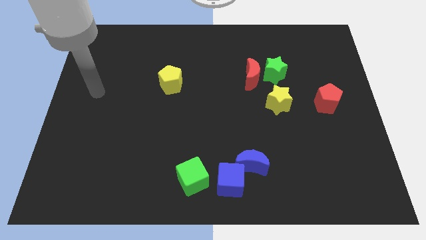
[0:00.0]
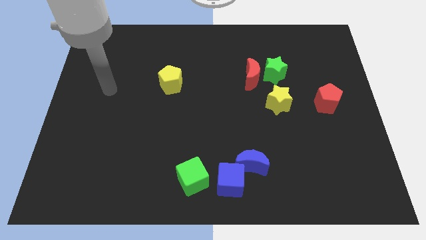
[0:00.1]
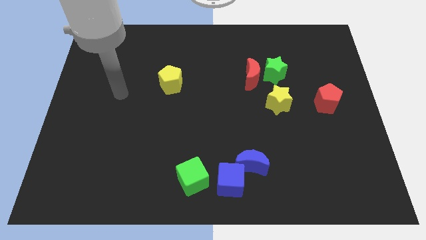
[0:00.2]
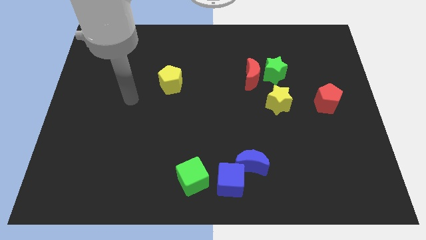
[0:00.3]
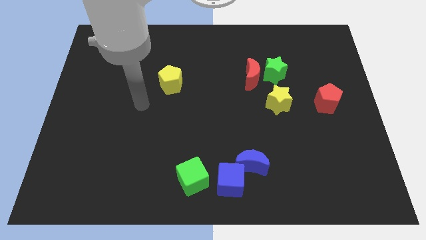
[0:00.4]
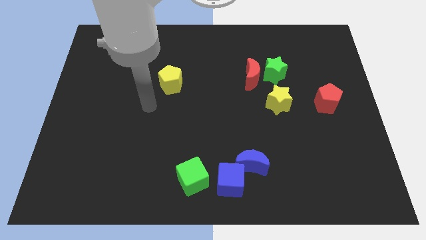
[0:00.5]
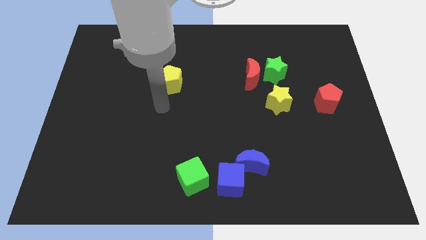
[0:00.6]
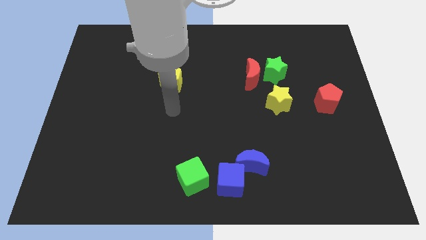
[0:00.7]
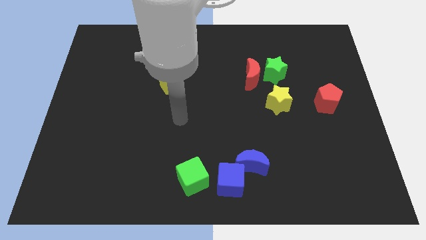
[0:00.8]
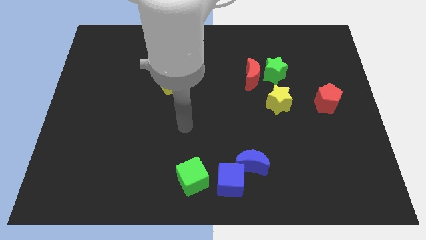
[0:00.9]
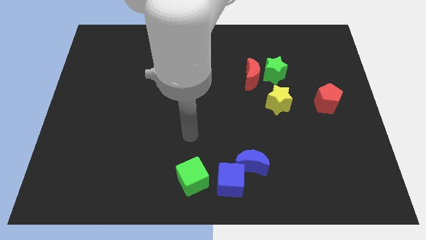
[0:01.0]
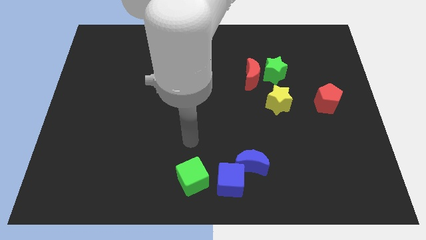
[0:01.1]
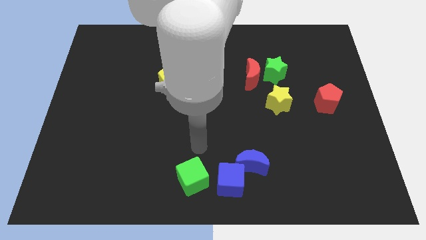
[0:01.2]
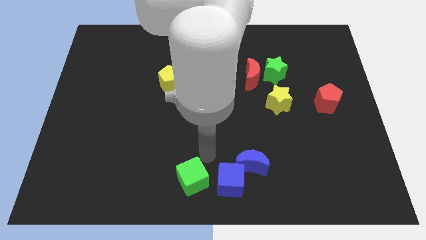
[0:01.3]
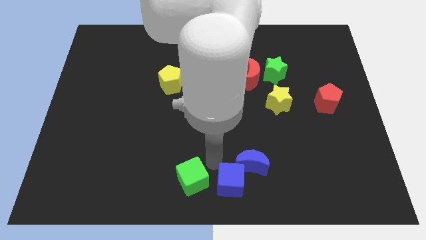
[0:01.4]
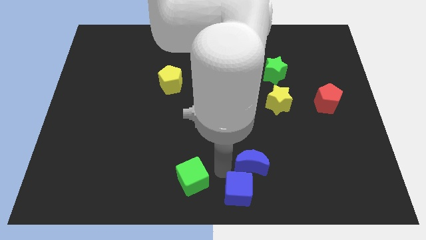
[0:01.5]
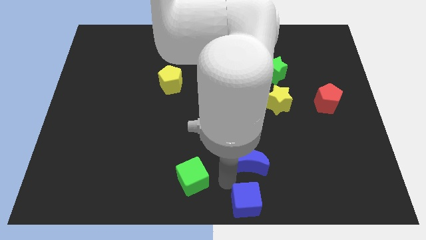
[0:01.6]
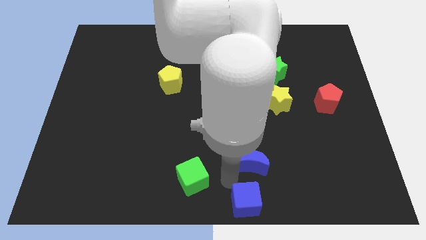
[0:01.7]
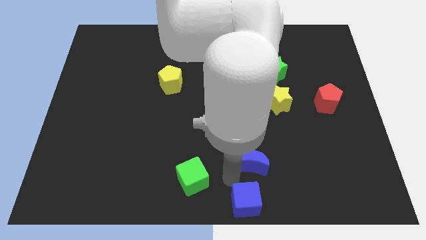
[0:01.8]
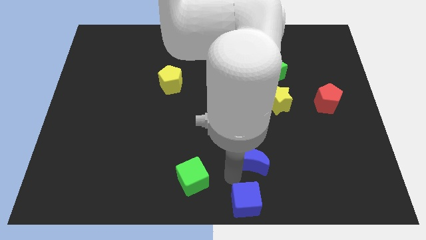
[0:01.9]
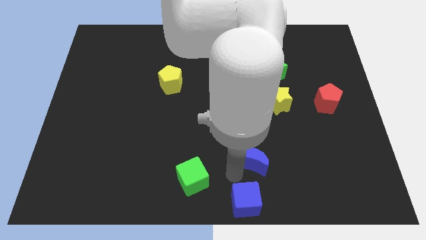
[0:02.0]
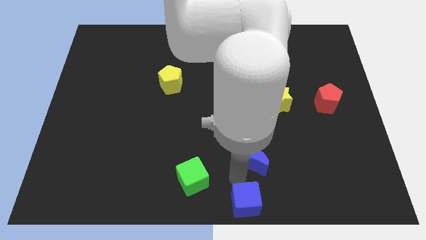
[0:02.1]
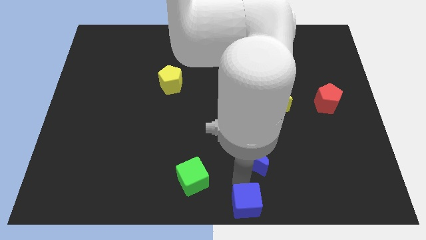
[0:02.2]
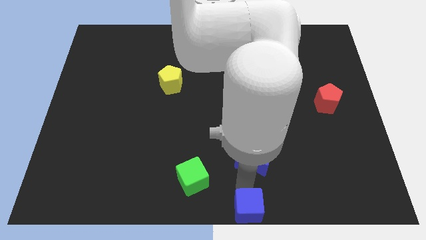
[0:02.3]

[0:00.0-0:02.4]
move the blue moon away from the blue cube

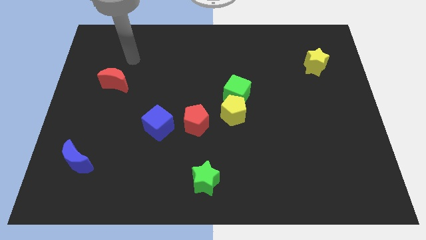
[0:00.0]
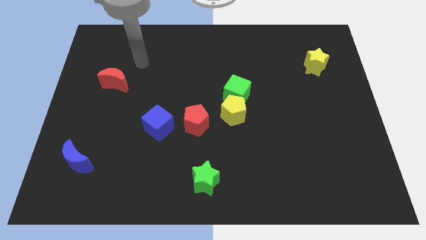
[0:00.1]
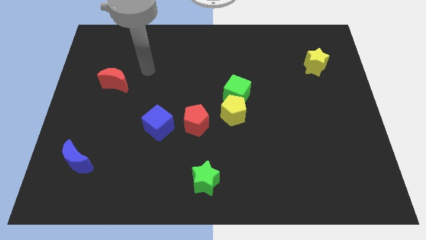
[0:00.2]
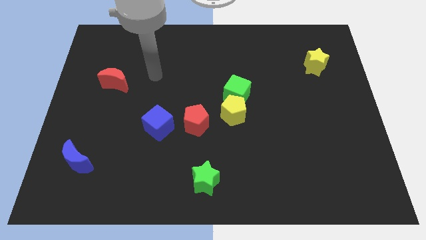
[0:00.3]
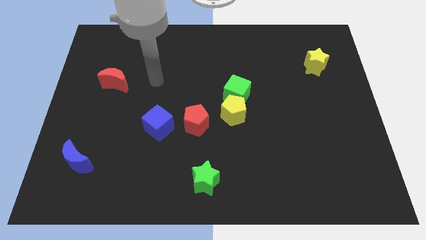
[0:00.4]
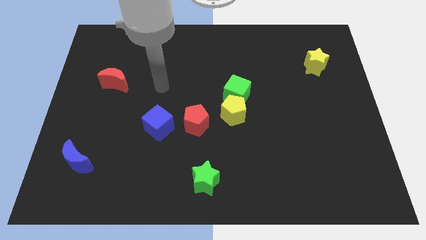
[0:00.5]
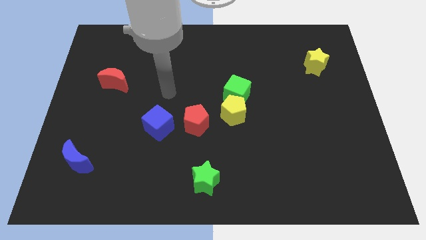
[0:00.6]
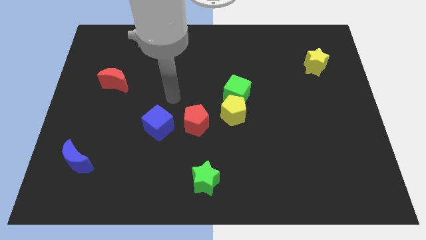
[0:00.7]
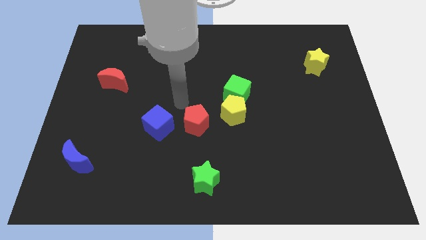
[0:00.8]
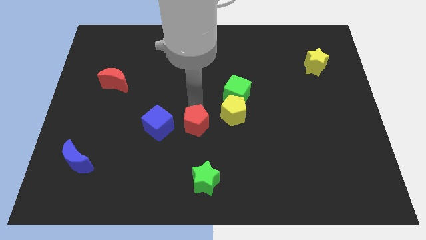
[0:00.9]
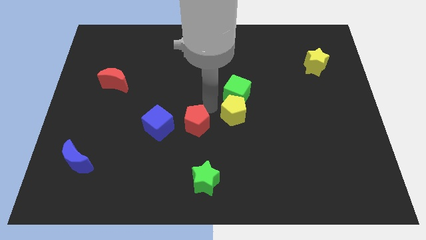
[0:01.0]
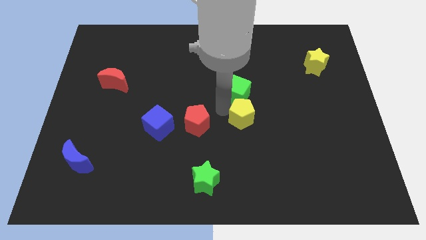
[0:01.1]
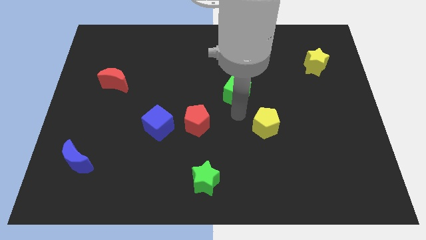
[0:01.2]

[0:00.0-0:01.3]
move the green cube away from the yellow pentagon

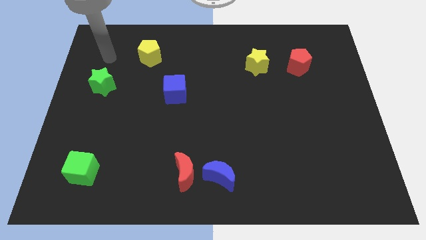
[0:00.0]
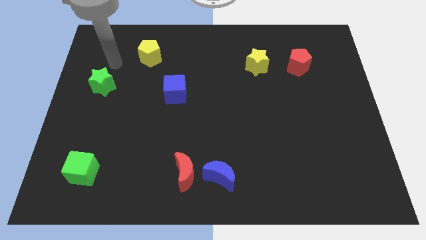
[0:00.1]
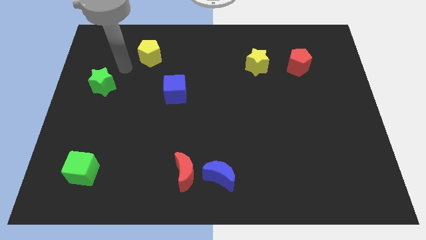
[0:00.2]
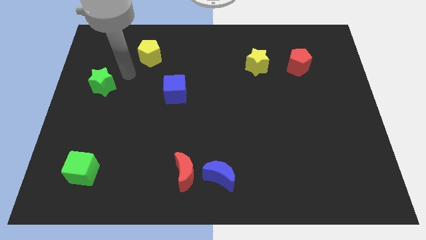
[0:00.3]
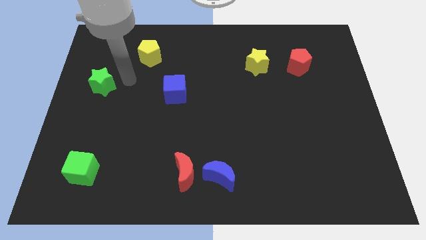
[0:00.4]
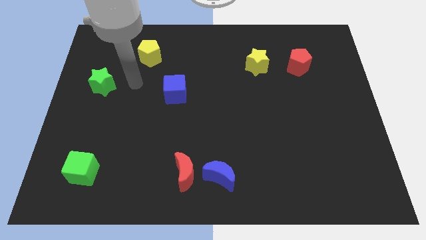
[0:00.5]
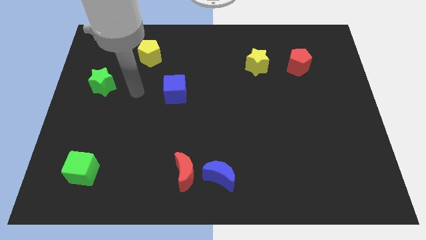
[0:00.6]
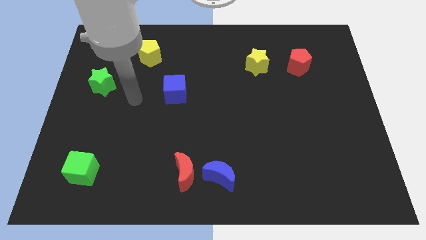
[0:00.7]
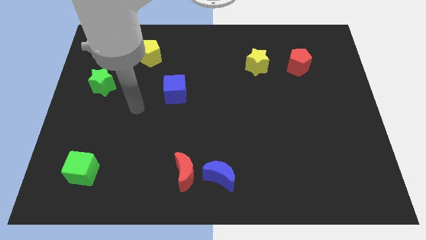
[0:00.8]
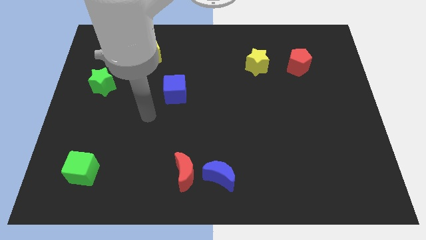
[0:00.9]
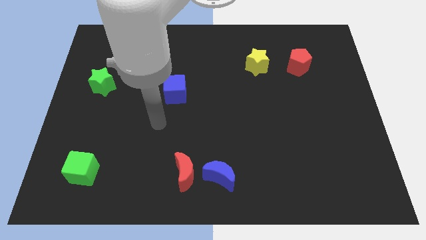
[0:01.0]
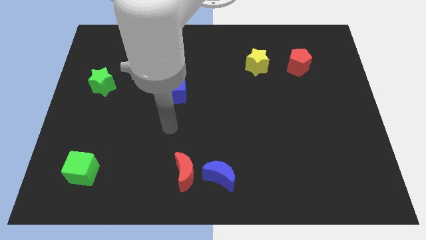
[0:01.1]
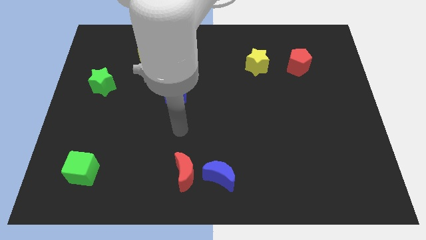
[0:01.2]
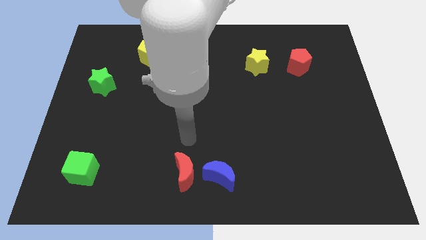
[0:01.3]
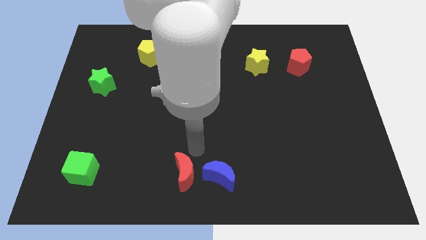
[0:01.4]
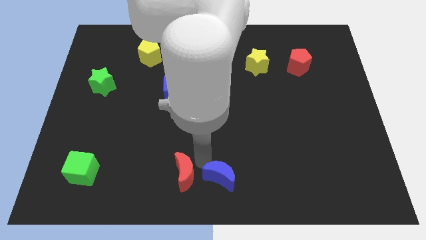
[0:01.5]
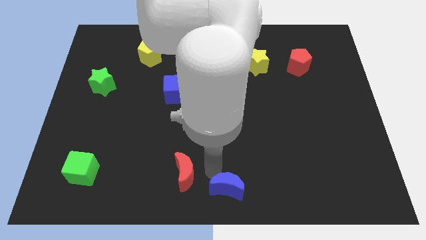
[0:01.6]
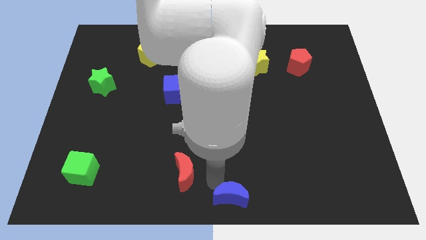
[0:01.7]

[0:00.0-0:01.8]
move the red moon away from the blue moon

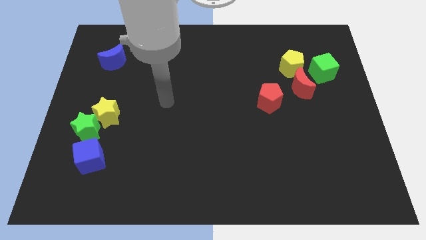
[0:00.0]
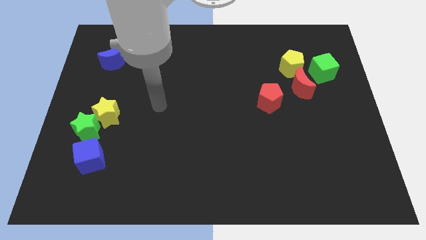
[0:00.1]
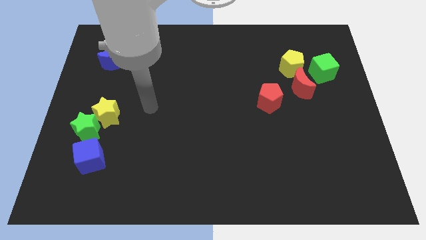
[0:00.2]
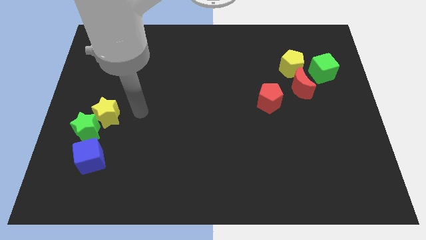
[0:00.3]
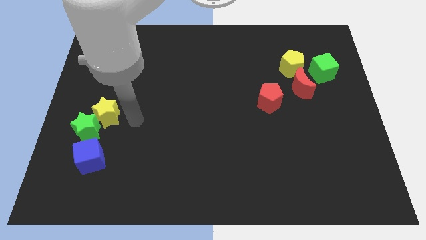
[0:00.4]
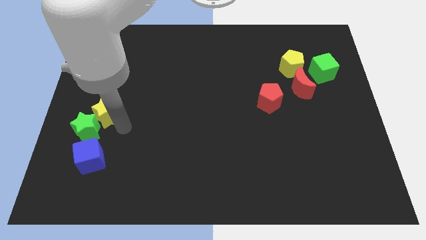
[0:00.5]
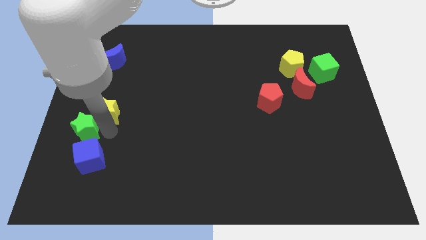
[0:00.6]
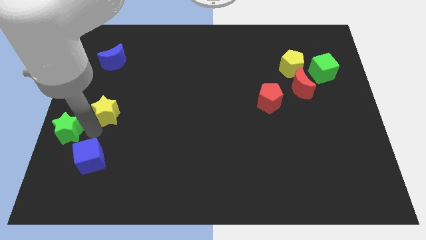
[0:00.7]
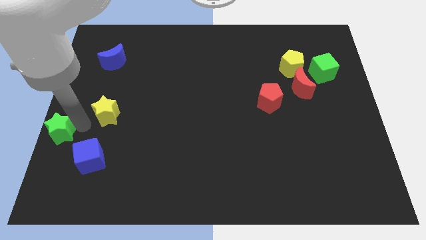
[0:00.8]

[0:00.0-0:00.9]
separate the yellow star from the green star

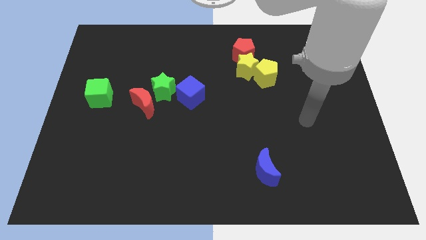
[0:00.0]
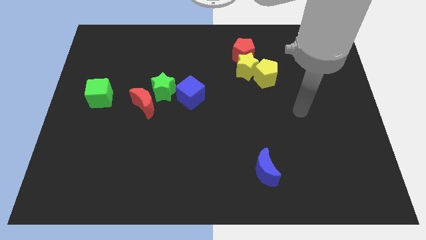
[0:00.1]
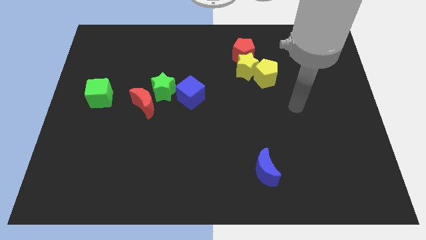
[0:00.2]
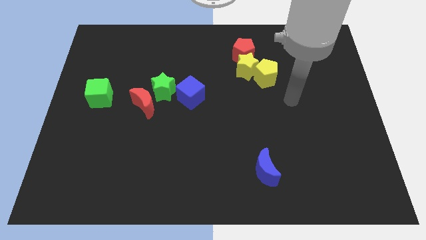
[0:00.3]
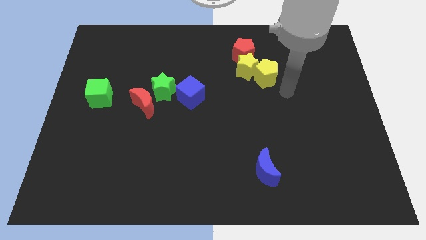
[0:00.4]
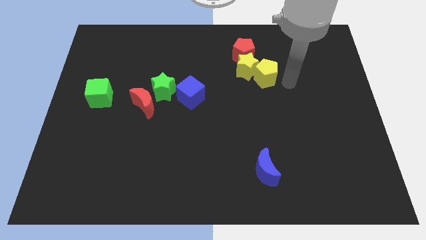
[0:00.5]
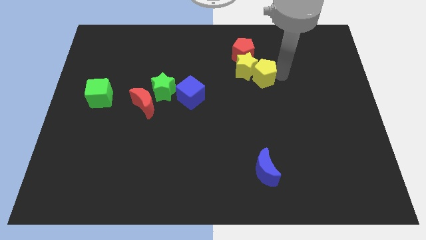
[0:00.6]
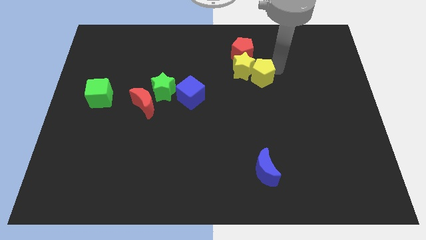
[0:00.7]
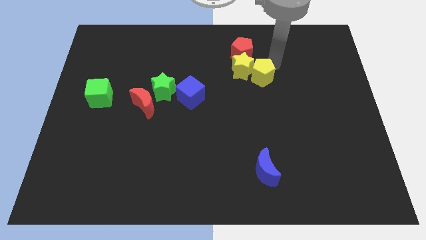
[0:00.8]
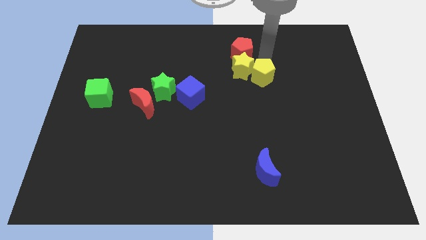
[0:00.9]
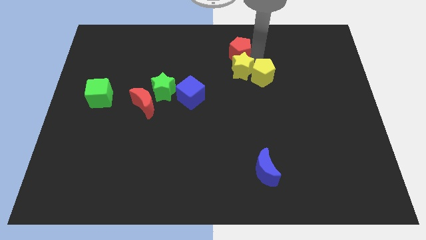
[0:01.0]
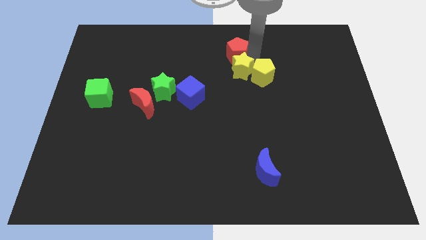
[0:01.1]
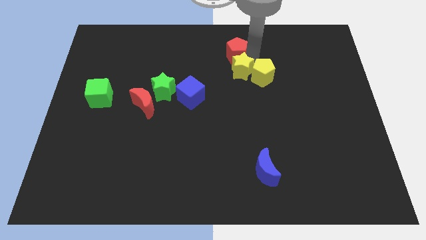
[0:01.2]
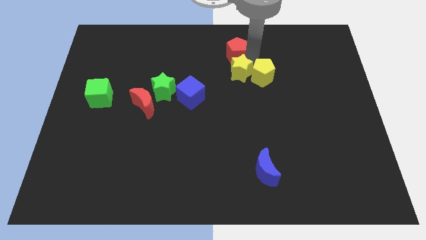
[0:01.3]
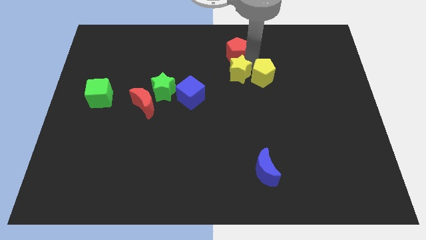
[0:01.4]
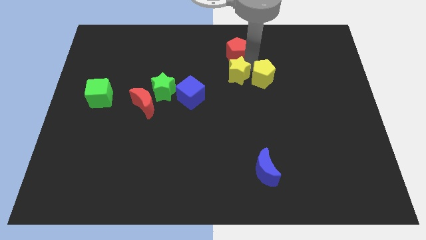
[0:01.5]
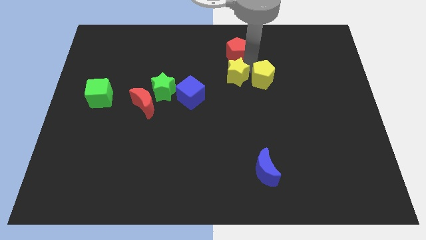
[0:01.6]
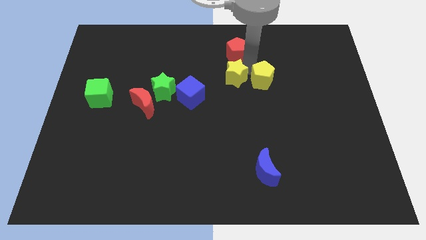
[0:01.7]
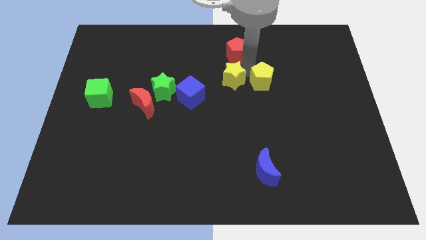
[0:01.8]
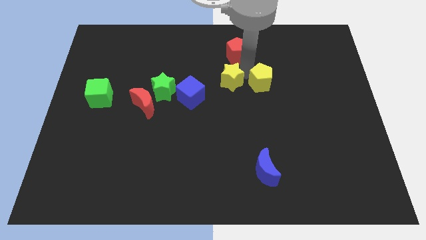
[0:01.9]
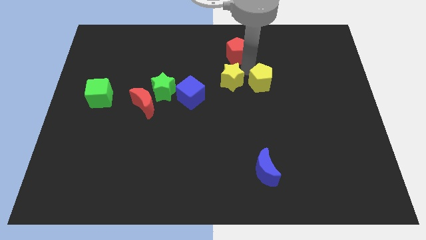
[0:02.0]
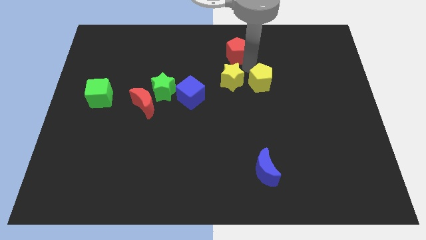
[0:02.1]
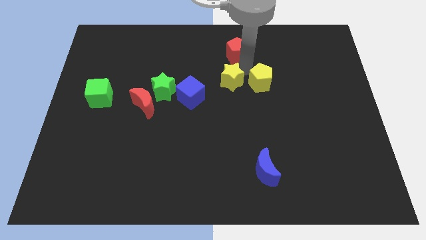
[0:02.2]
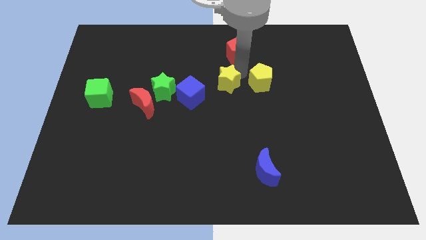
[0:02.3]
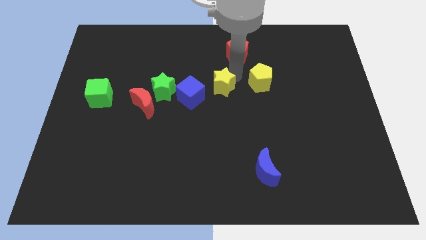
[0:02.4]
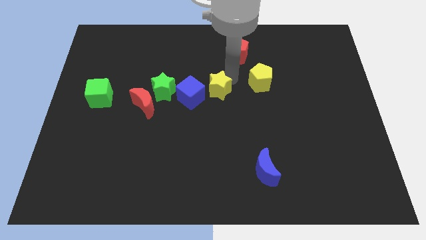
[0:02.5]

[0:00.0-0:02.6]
move the yellow star away from the red pentagon and yellow pentagon

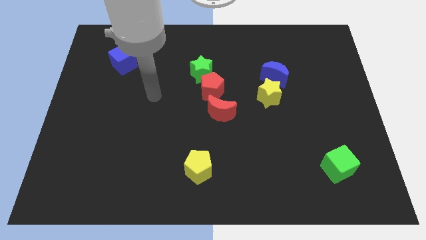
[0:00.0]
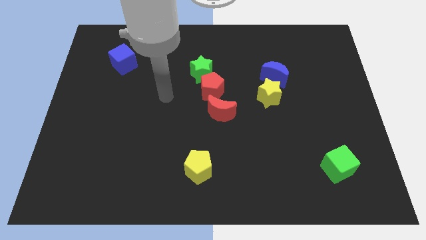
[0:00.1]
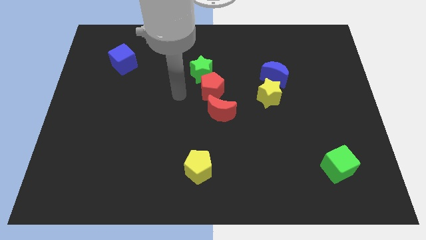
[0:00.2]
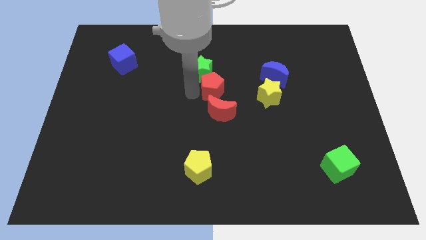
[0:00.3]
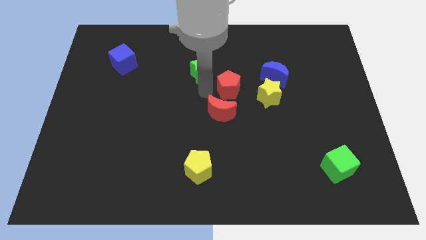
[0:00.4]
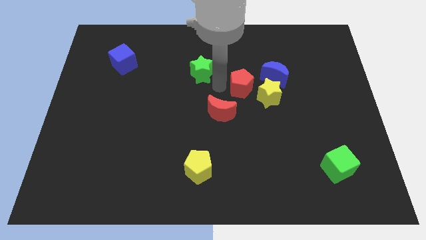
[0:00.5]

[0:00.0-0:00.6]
pull the green star apart from the red pentagon
